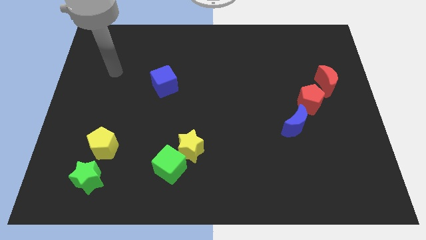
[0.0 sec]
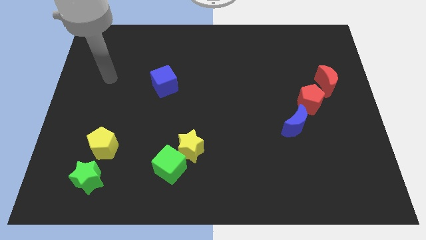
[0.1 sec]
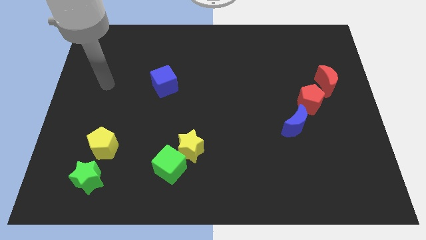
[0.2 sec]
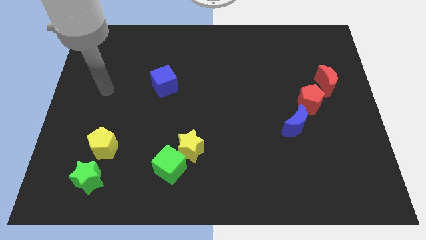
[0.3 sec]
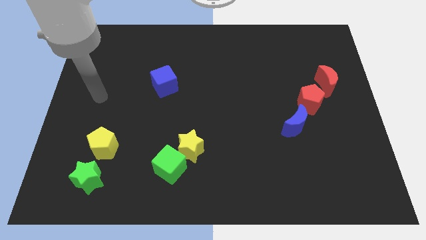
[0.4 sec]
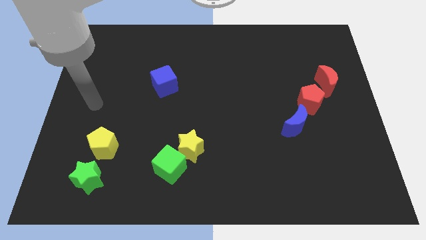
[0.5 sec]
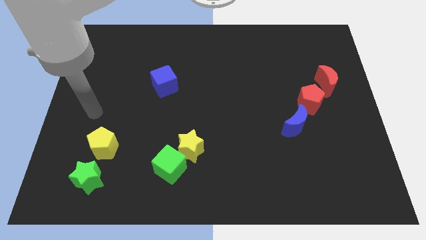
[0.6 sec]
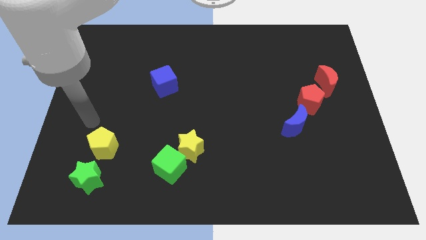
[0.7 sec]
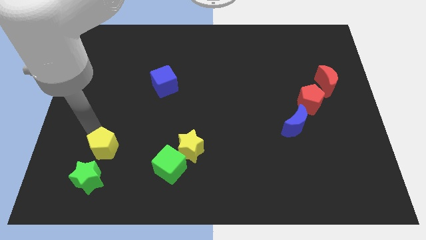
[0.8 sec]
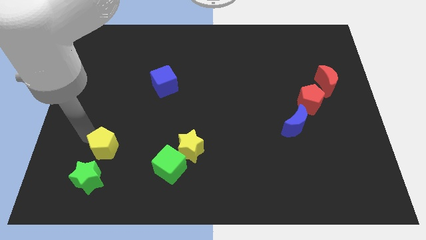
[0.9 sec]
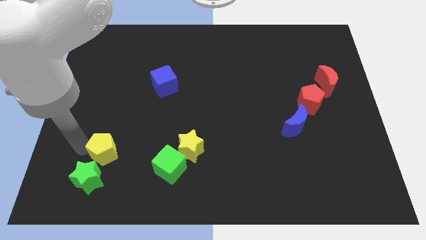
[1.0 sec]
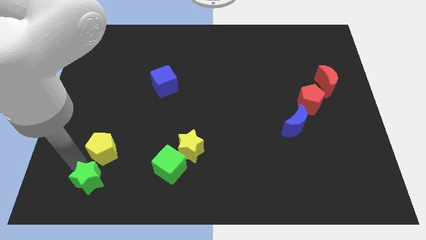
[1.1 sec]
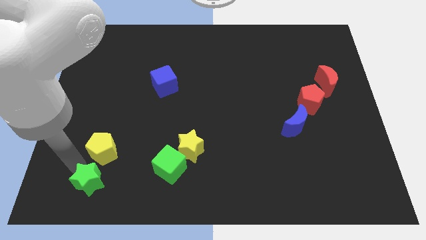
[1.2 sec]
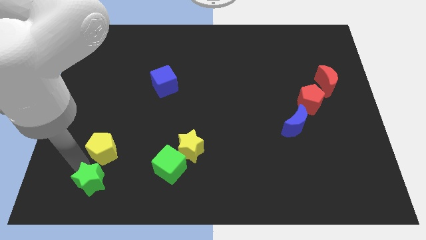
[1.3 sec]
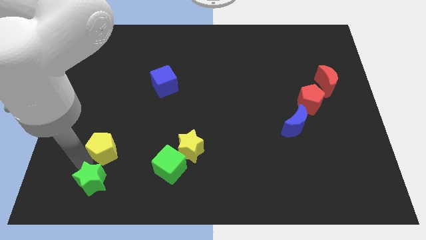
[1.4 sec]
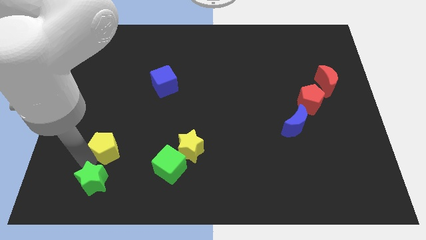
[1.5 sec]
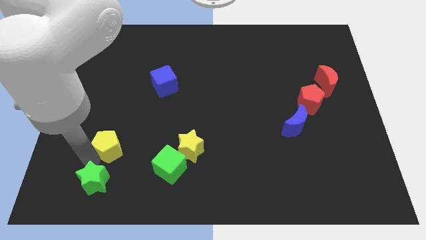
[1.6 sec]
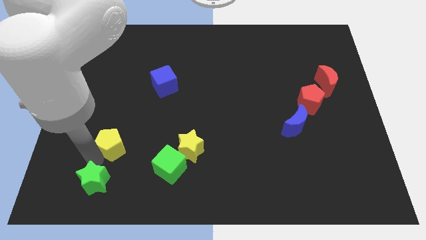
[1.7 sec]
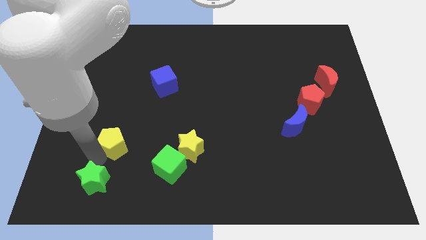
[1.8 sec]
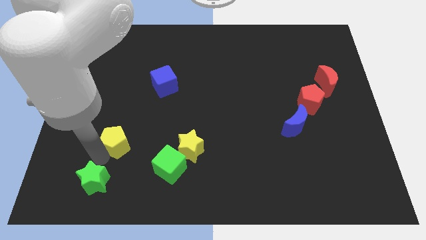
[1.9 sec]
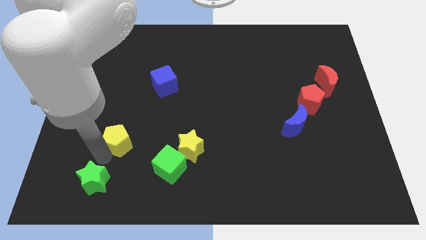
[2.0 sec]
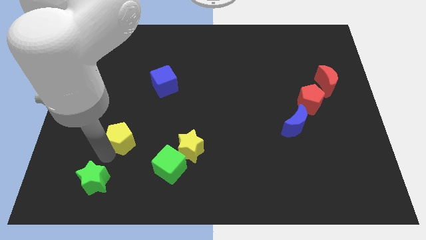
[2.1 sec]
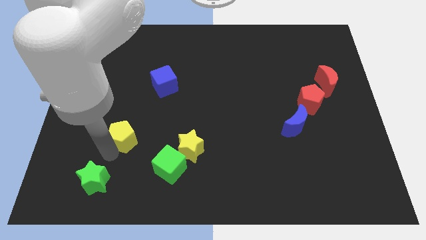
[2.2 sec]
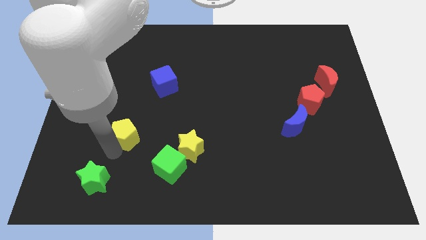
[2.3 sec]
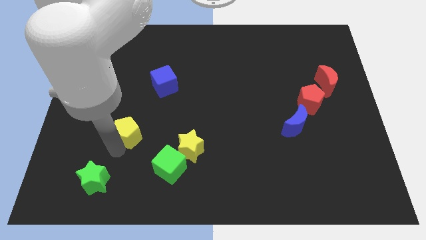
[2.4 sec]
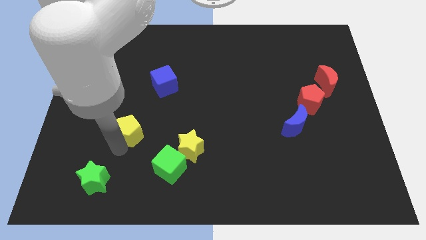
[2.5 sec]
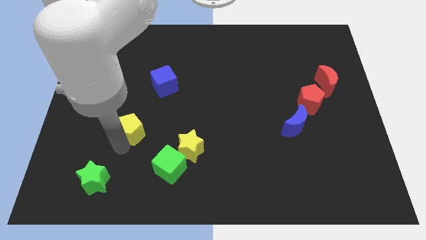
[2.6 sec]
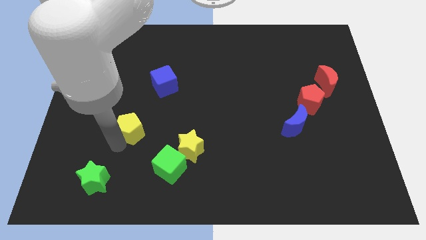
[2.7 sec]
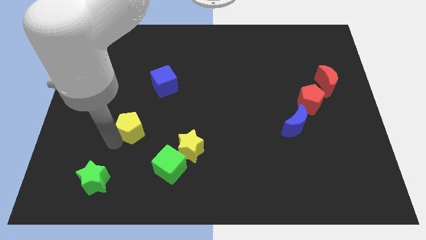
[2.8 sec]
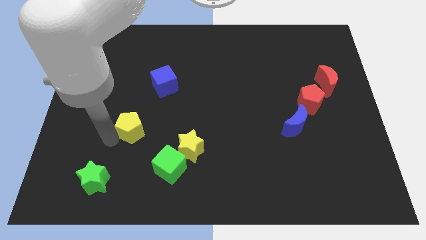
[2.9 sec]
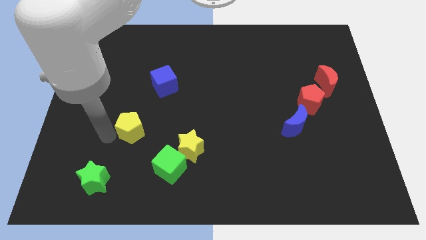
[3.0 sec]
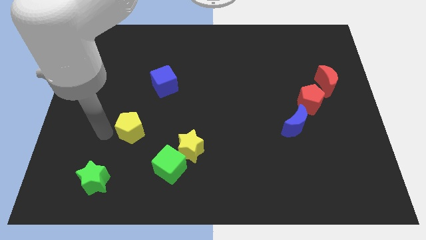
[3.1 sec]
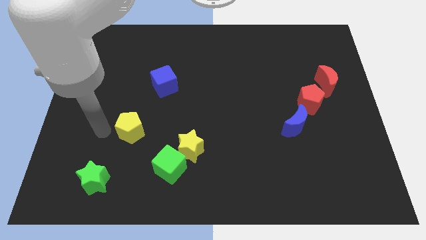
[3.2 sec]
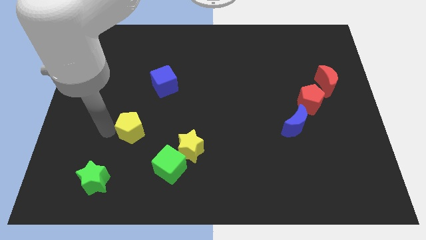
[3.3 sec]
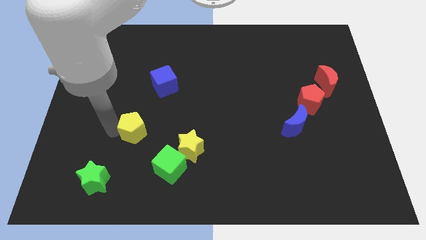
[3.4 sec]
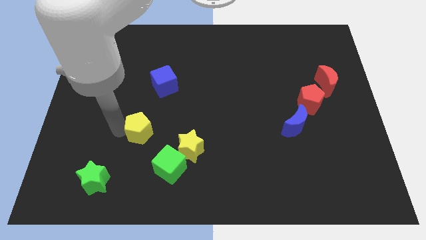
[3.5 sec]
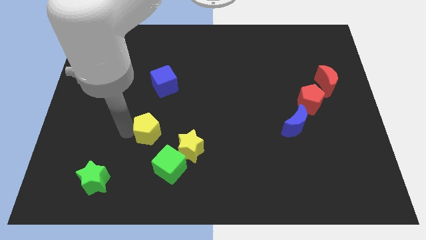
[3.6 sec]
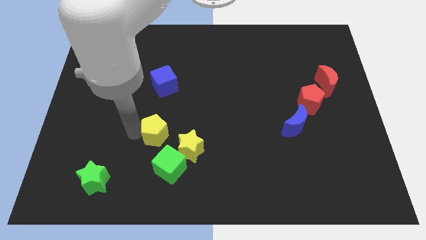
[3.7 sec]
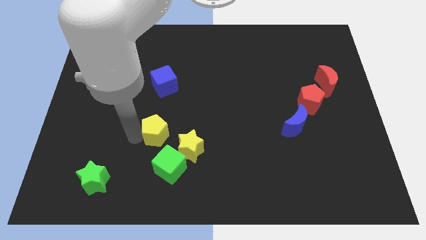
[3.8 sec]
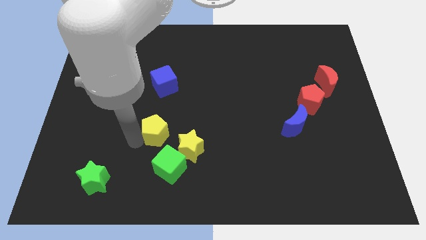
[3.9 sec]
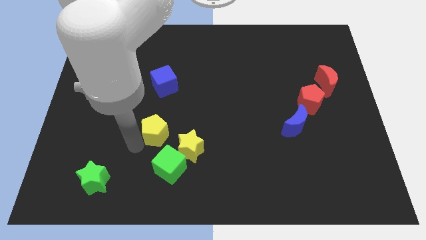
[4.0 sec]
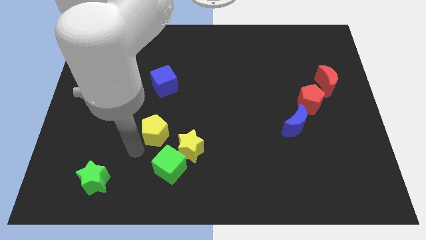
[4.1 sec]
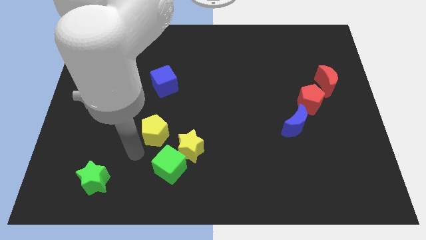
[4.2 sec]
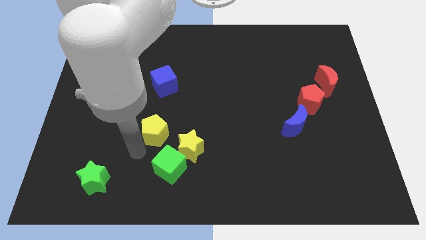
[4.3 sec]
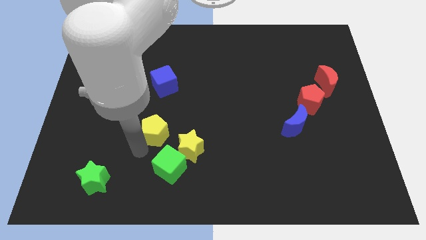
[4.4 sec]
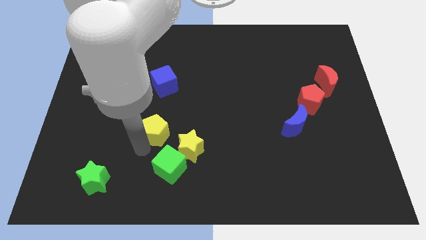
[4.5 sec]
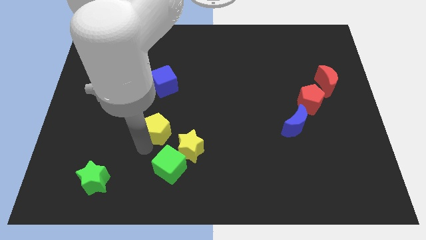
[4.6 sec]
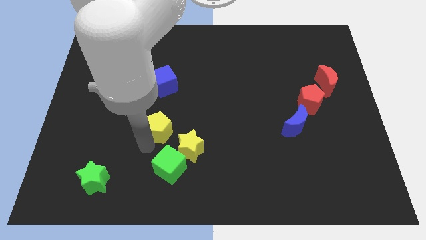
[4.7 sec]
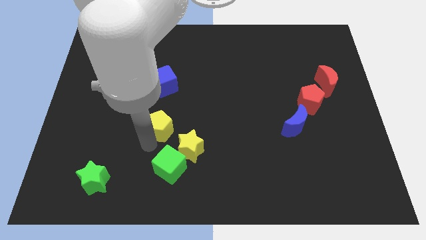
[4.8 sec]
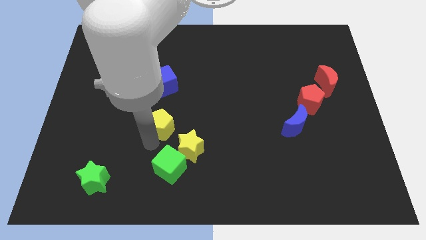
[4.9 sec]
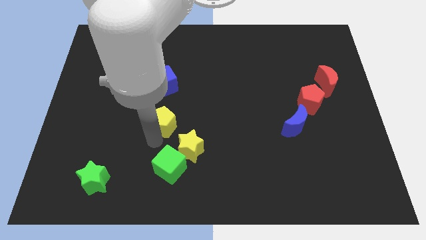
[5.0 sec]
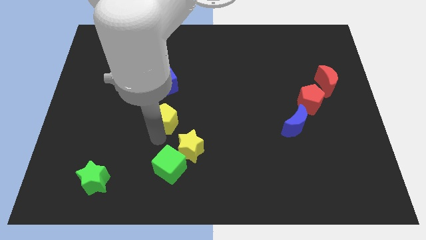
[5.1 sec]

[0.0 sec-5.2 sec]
push the yellow pentagon to the middle
